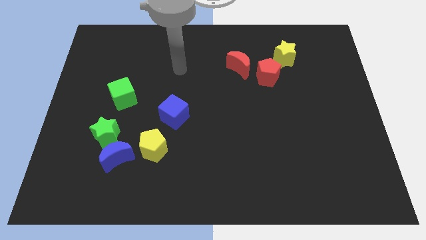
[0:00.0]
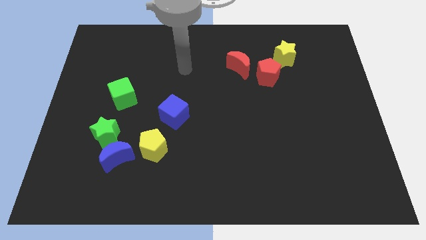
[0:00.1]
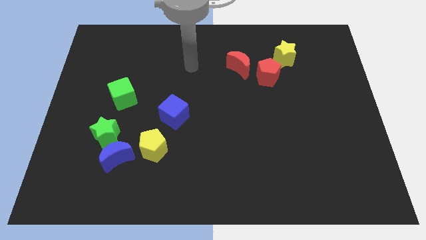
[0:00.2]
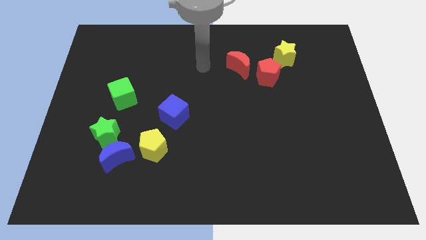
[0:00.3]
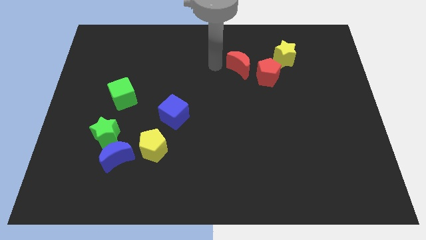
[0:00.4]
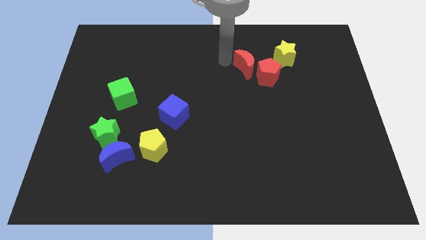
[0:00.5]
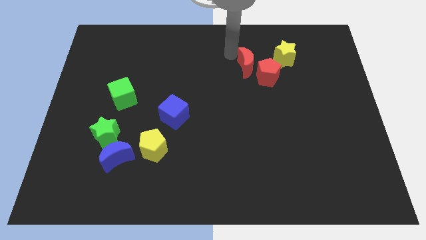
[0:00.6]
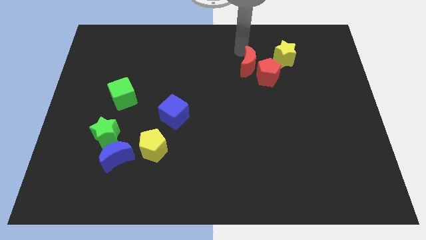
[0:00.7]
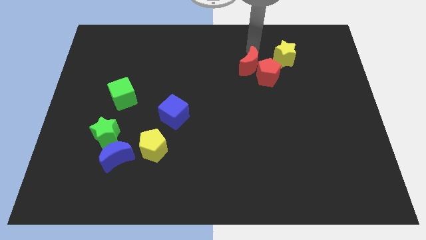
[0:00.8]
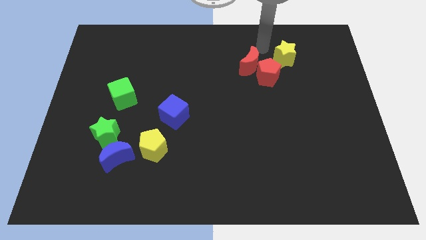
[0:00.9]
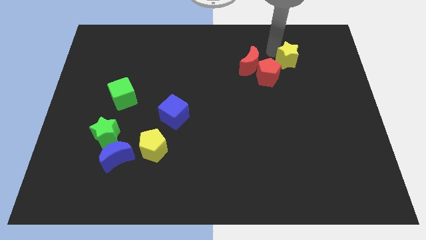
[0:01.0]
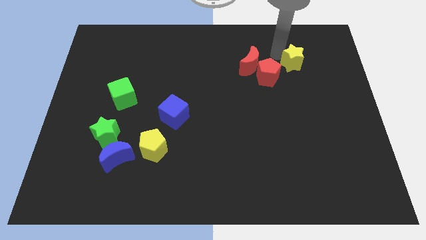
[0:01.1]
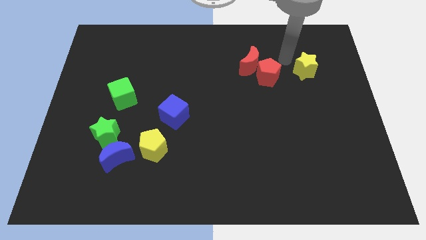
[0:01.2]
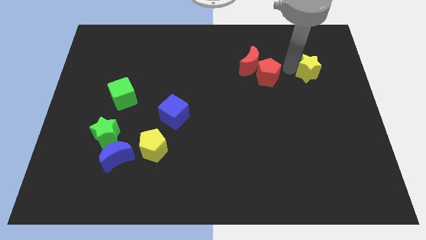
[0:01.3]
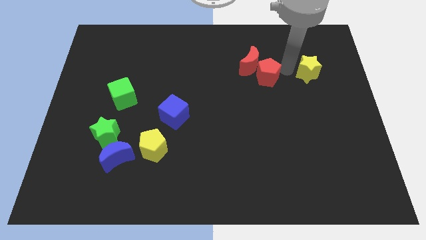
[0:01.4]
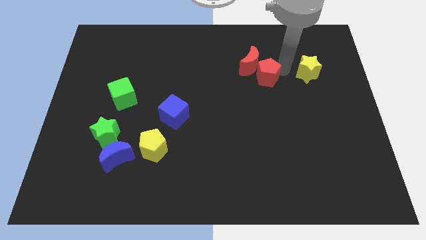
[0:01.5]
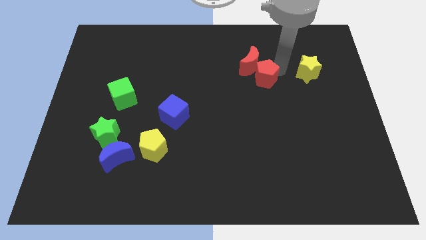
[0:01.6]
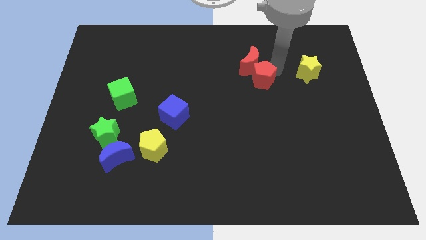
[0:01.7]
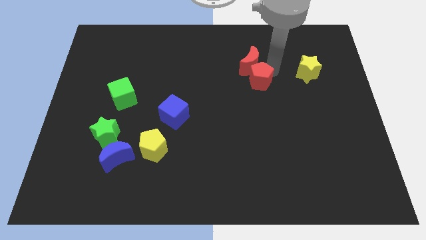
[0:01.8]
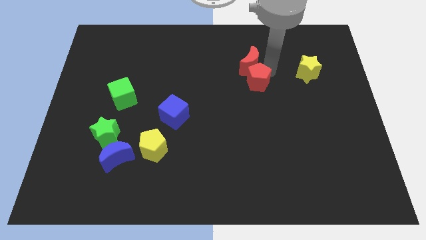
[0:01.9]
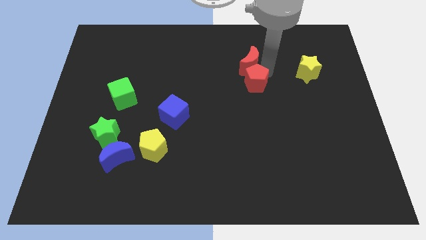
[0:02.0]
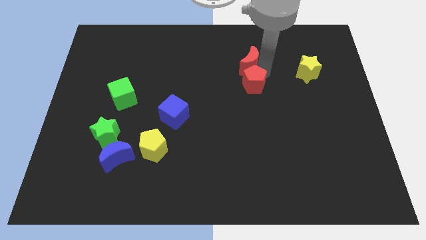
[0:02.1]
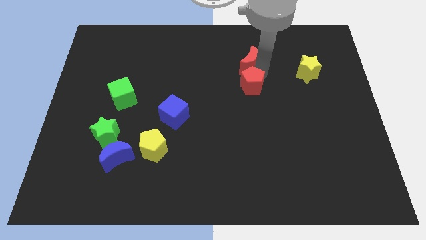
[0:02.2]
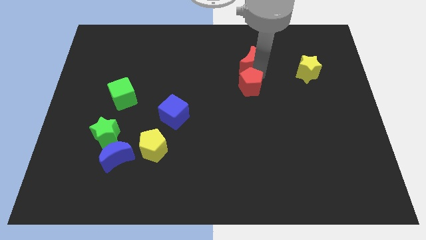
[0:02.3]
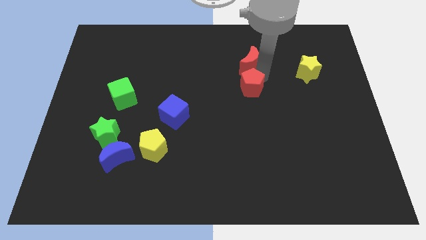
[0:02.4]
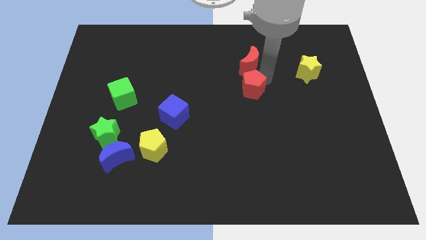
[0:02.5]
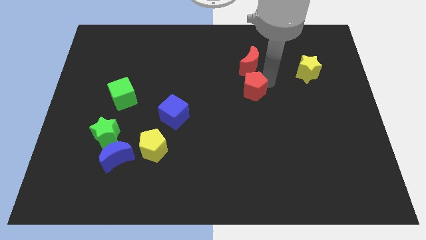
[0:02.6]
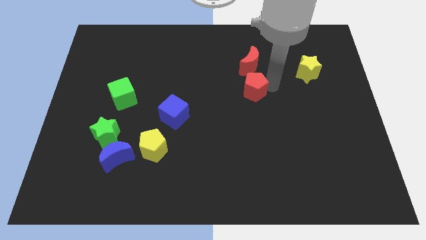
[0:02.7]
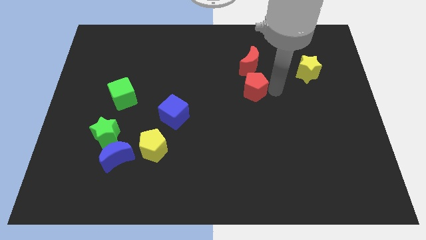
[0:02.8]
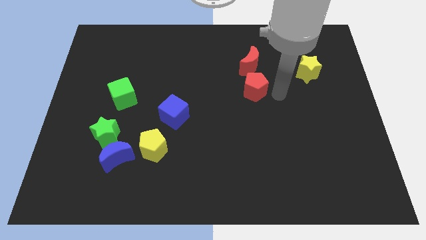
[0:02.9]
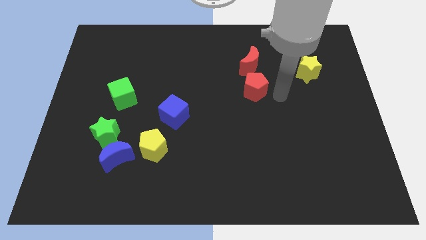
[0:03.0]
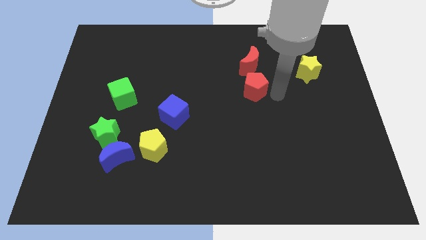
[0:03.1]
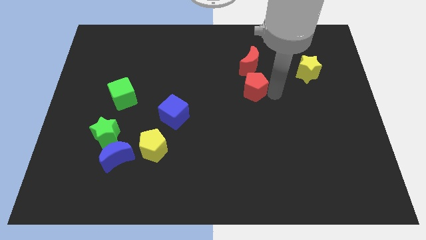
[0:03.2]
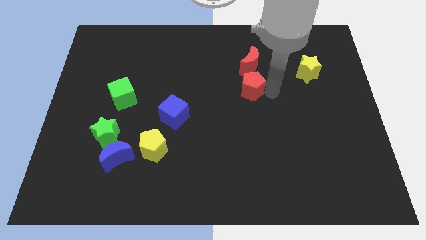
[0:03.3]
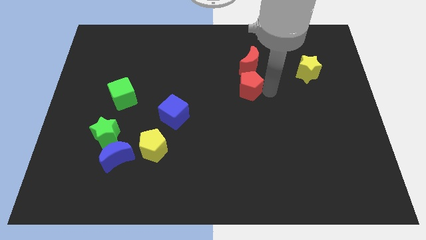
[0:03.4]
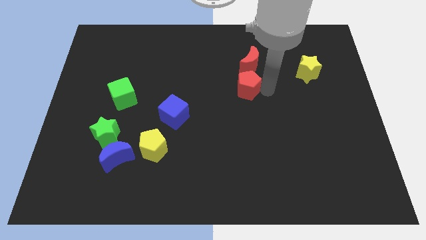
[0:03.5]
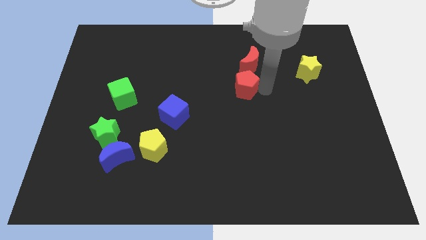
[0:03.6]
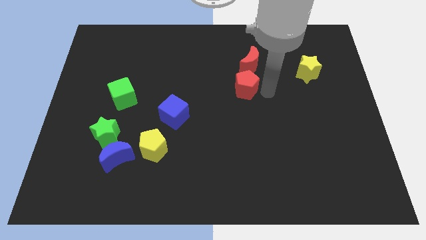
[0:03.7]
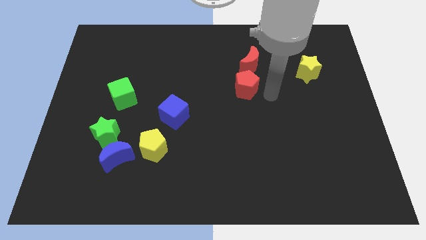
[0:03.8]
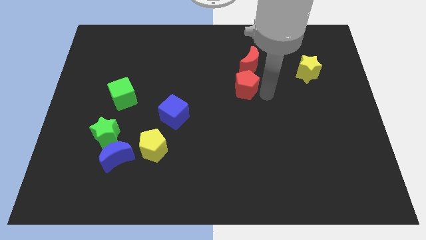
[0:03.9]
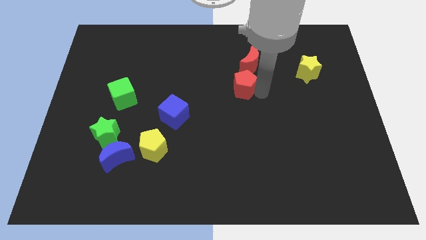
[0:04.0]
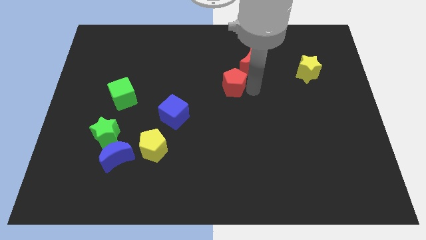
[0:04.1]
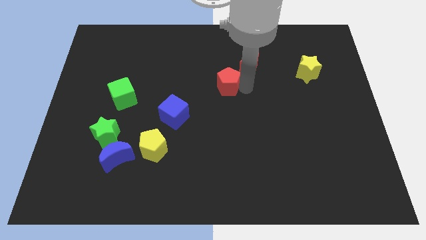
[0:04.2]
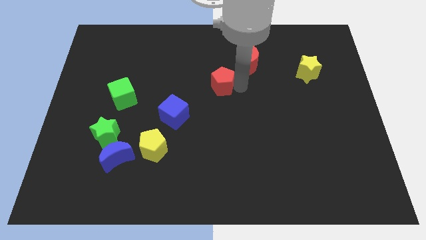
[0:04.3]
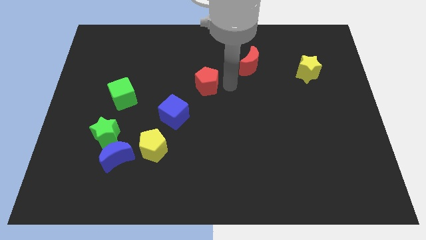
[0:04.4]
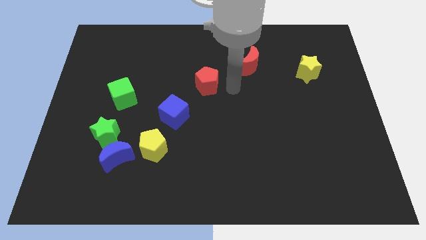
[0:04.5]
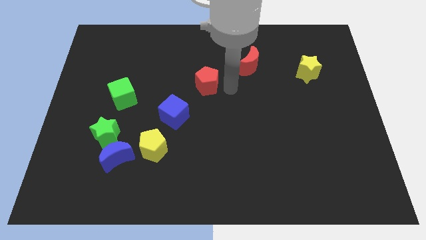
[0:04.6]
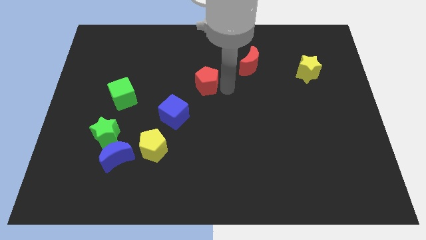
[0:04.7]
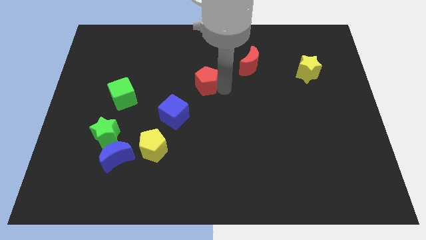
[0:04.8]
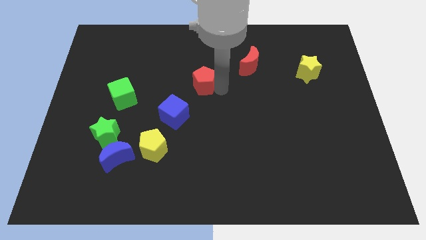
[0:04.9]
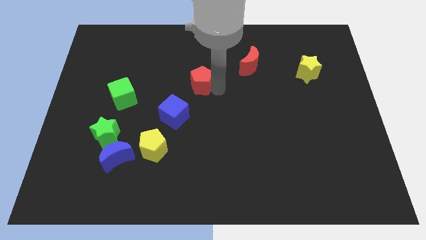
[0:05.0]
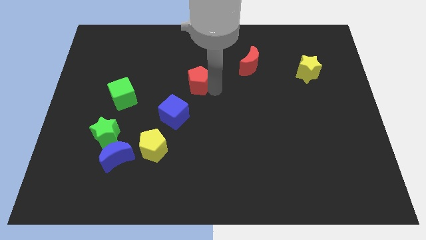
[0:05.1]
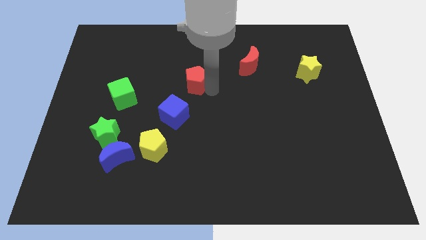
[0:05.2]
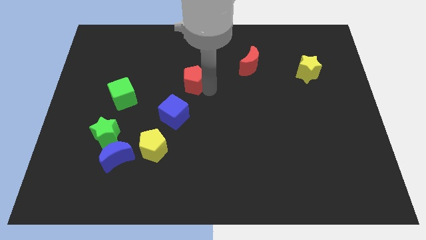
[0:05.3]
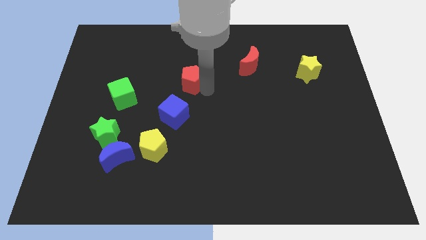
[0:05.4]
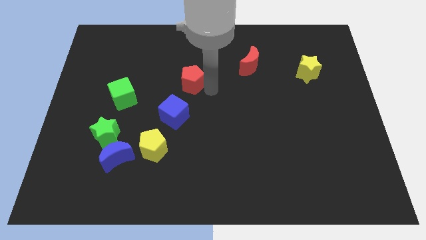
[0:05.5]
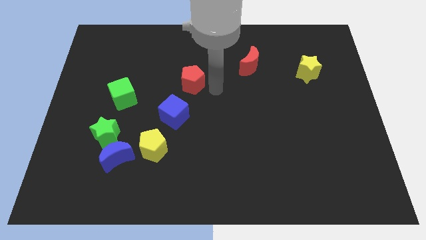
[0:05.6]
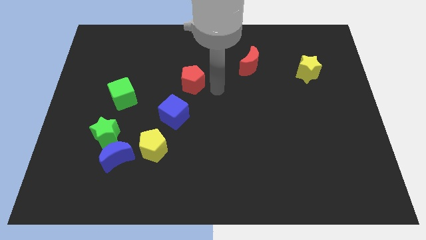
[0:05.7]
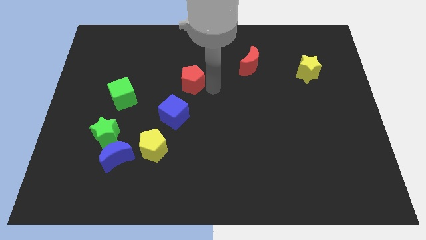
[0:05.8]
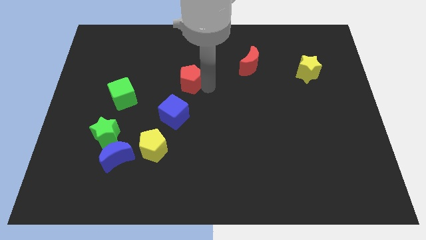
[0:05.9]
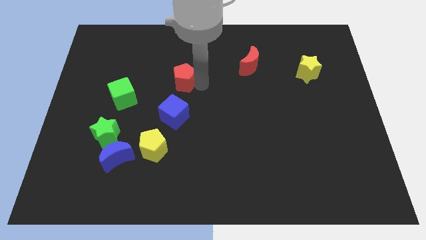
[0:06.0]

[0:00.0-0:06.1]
move the red pentagon to the left

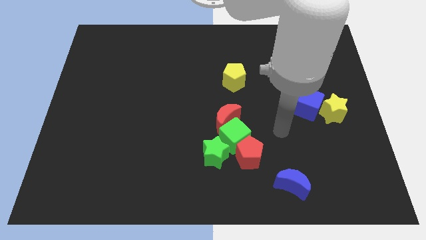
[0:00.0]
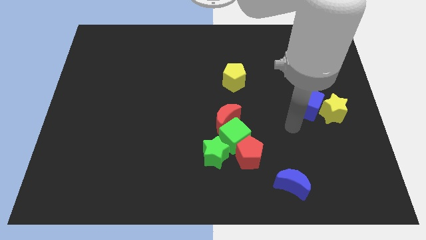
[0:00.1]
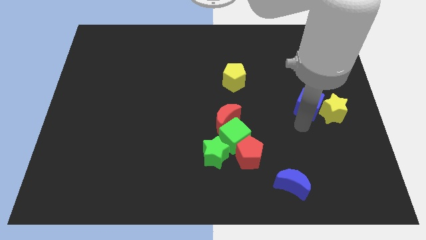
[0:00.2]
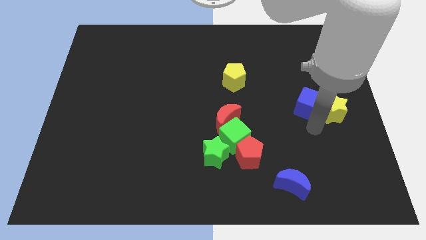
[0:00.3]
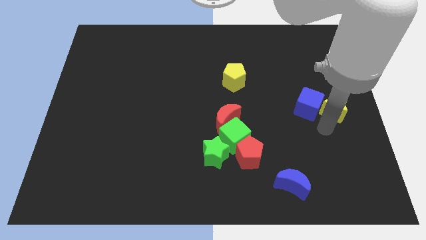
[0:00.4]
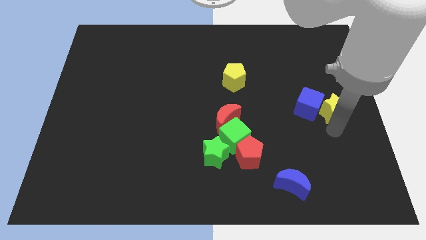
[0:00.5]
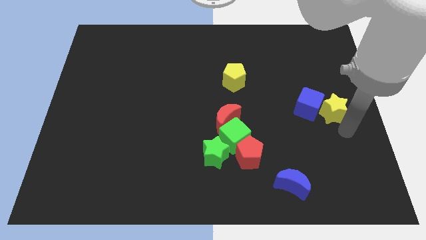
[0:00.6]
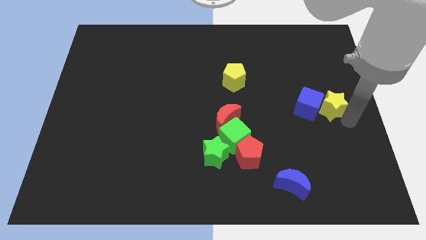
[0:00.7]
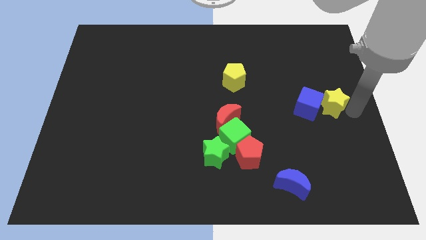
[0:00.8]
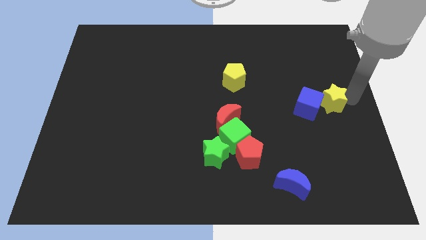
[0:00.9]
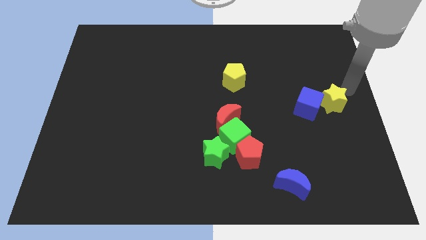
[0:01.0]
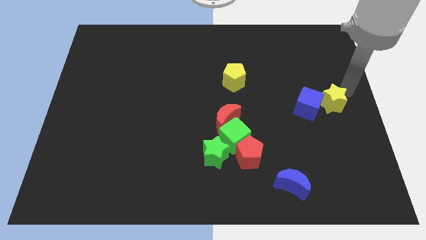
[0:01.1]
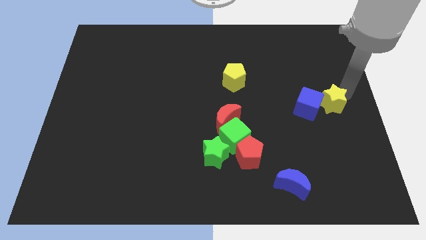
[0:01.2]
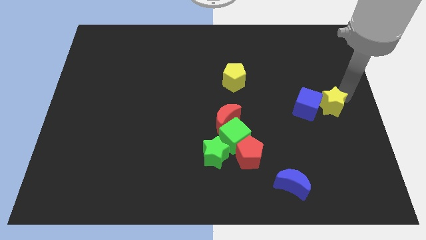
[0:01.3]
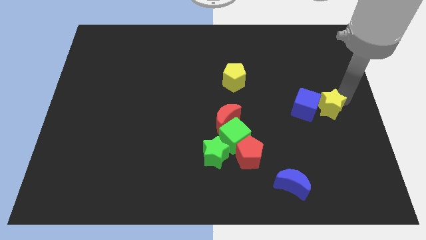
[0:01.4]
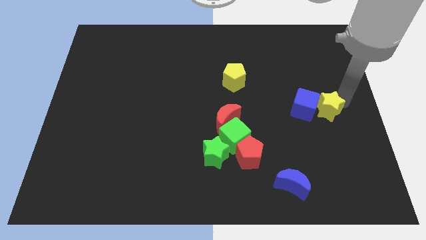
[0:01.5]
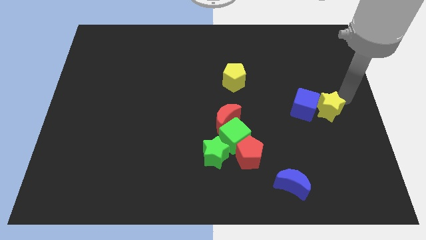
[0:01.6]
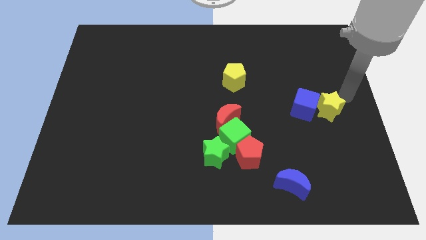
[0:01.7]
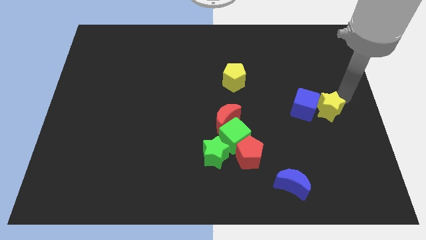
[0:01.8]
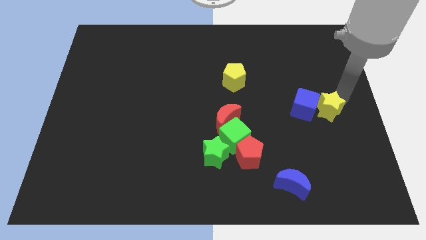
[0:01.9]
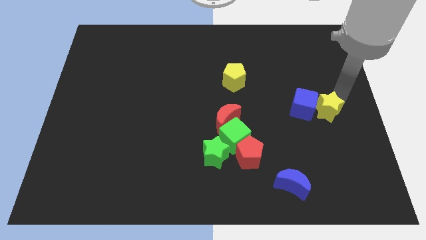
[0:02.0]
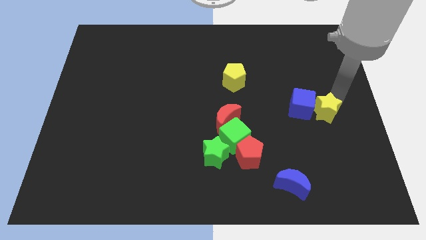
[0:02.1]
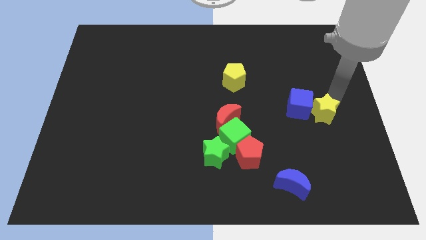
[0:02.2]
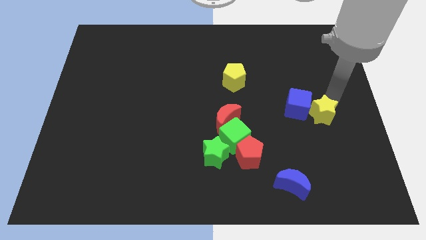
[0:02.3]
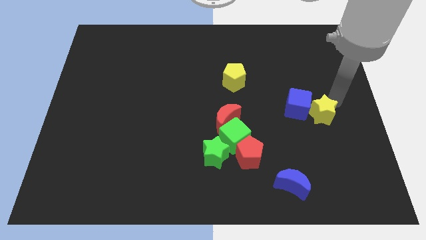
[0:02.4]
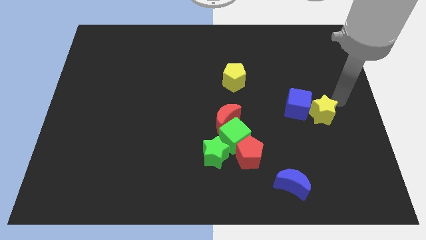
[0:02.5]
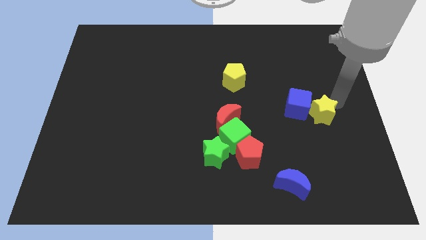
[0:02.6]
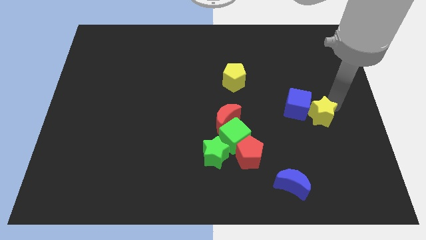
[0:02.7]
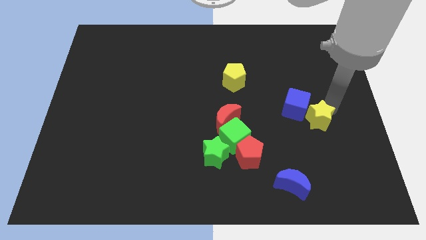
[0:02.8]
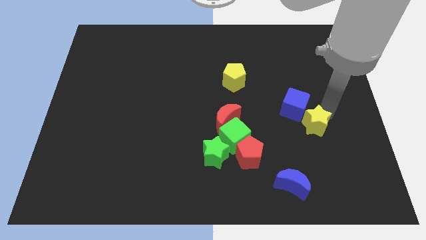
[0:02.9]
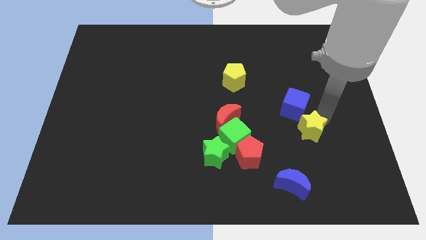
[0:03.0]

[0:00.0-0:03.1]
push the yellow star diagonally downwards and left a little bit
